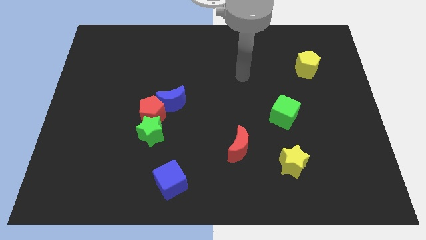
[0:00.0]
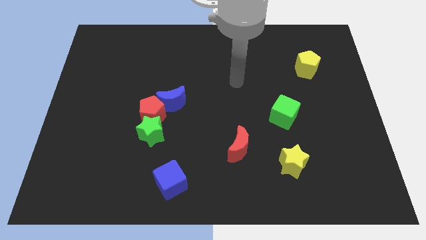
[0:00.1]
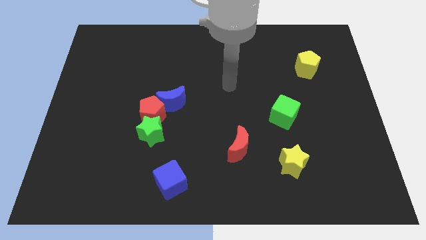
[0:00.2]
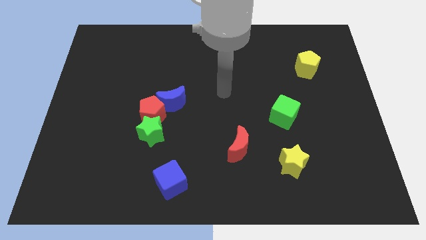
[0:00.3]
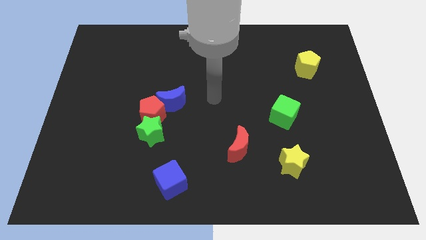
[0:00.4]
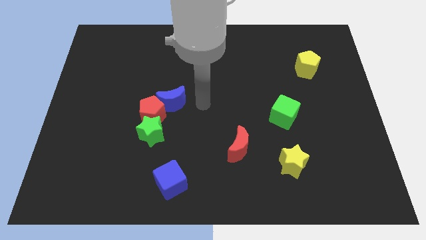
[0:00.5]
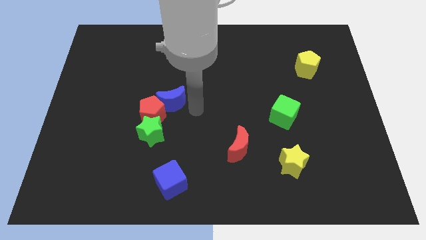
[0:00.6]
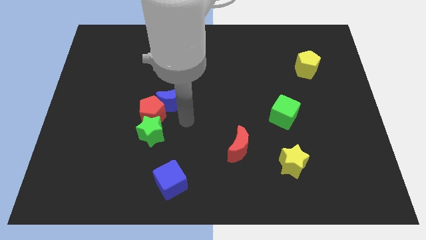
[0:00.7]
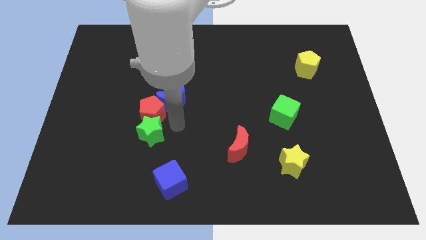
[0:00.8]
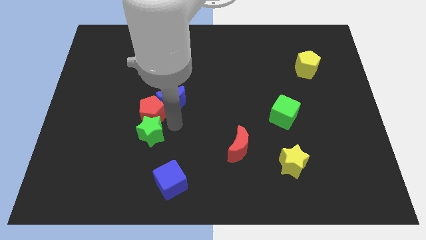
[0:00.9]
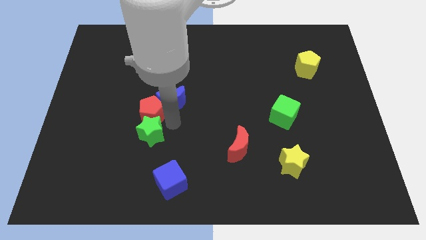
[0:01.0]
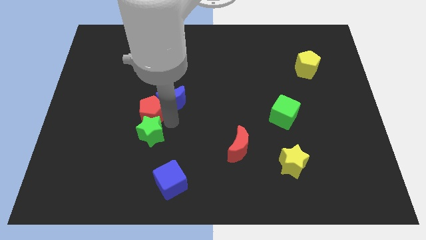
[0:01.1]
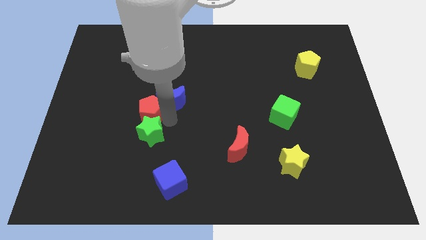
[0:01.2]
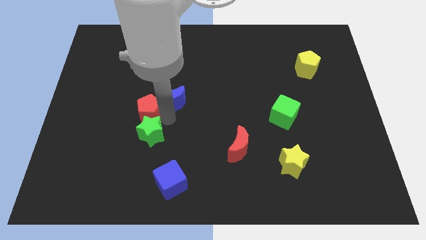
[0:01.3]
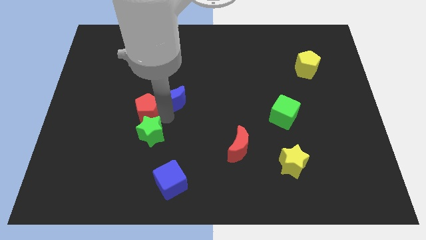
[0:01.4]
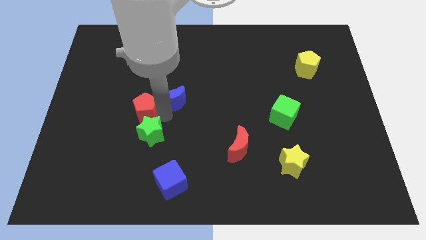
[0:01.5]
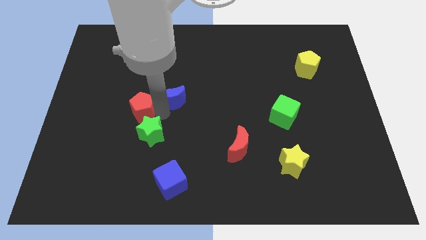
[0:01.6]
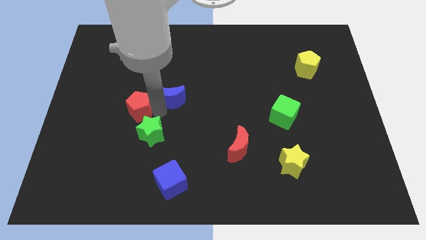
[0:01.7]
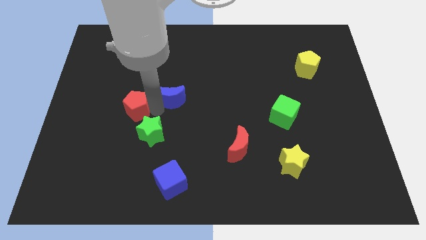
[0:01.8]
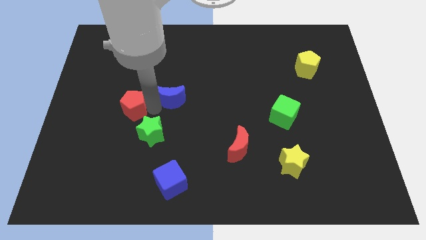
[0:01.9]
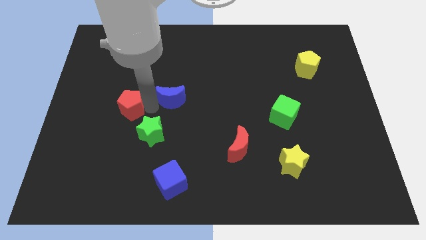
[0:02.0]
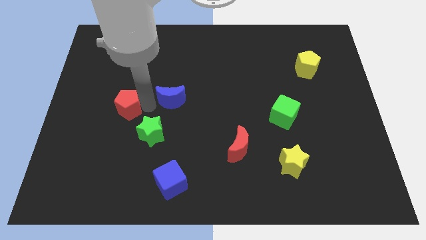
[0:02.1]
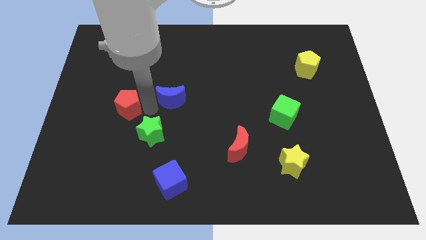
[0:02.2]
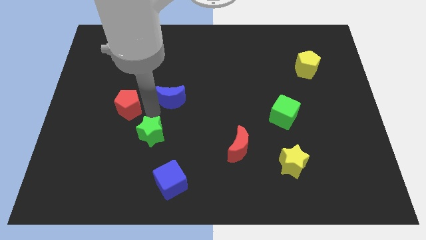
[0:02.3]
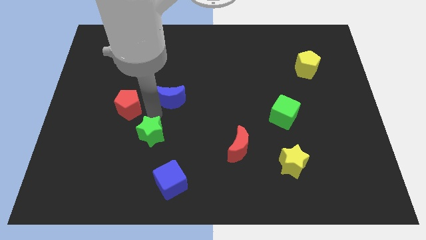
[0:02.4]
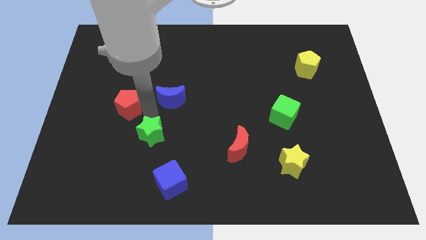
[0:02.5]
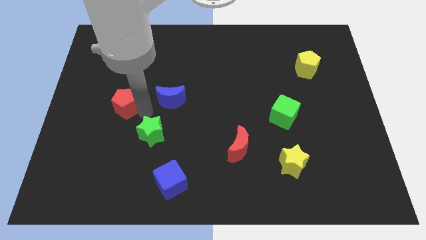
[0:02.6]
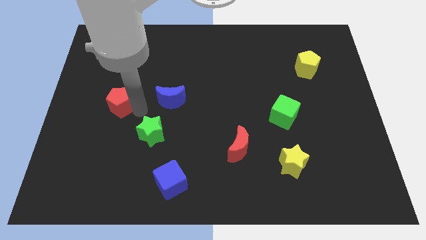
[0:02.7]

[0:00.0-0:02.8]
move the red pentagon away from the green star and blue moon

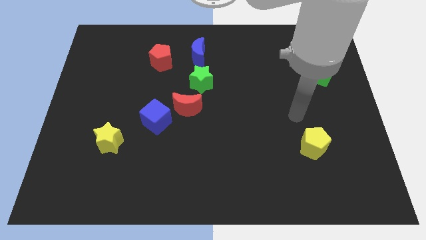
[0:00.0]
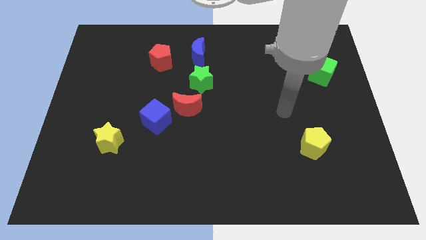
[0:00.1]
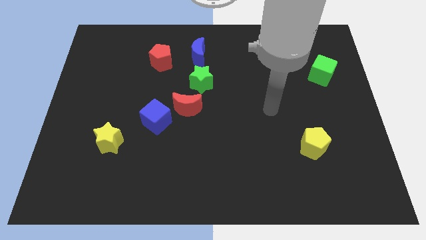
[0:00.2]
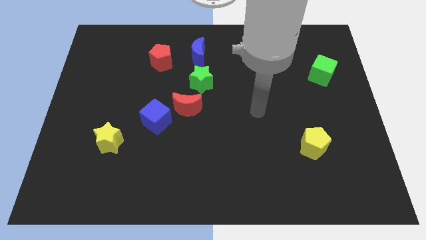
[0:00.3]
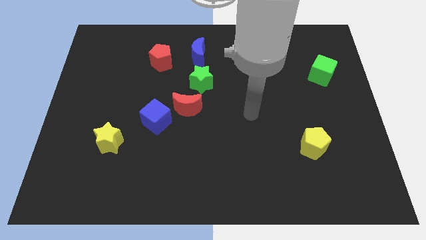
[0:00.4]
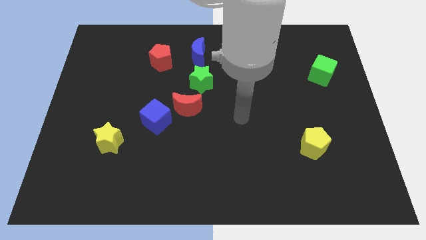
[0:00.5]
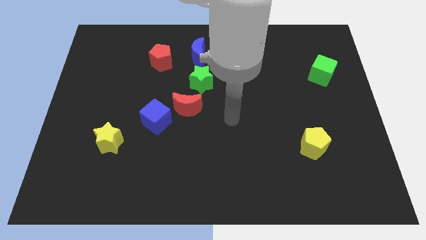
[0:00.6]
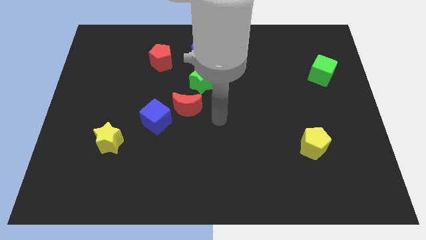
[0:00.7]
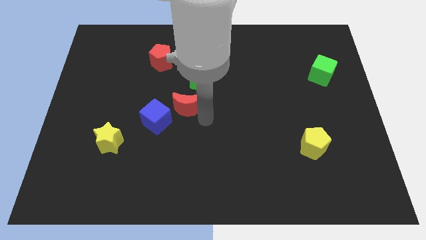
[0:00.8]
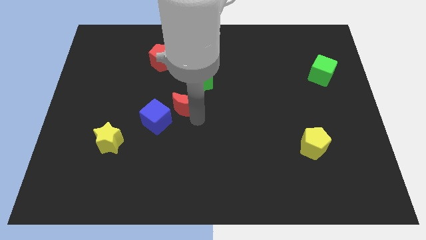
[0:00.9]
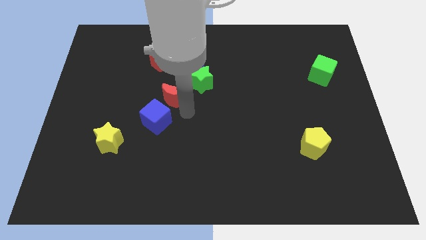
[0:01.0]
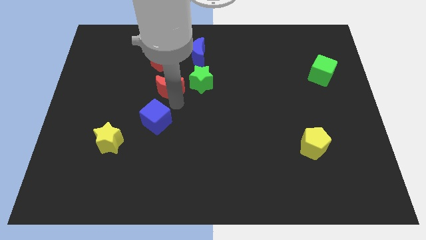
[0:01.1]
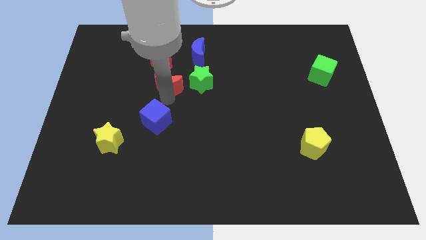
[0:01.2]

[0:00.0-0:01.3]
pull the blue cube apart from the red moon

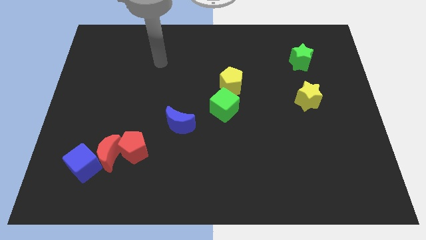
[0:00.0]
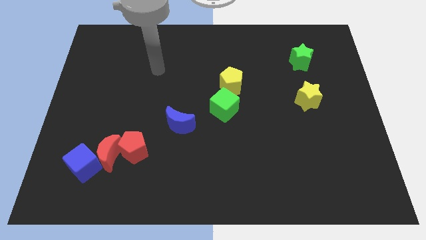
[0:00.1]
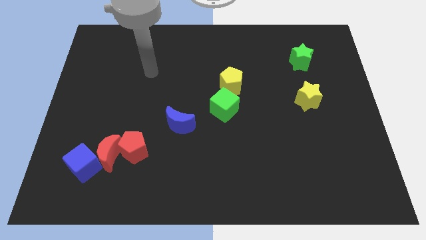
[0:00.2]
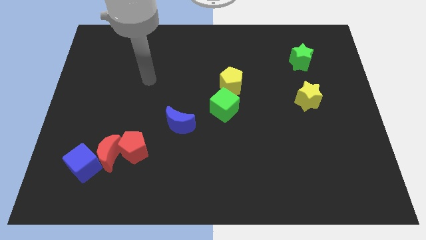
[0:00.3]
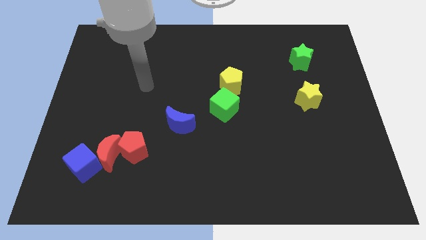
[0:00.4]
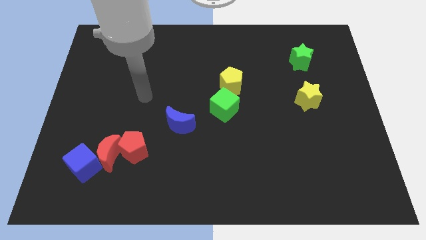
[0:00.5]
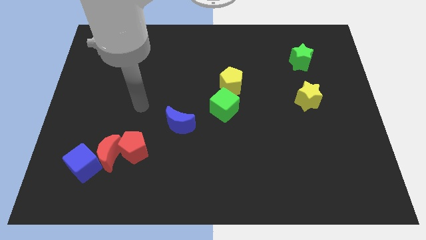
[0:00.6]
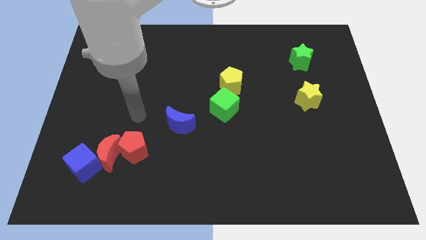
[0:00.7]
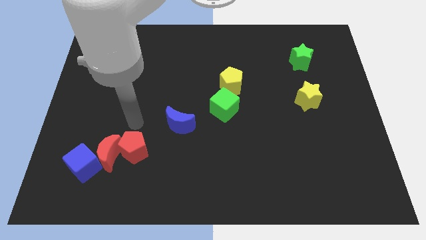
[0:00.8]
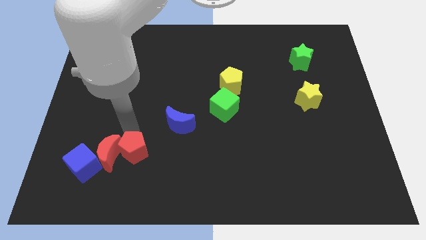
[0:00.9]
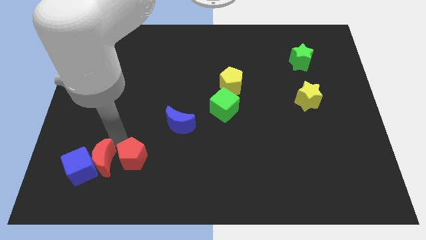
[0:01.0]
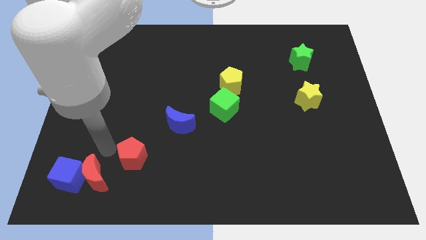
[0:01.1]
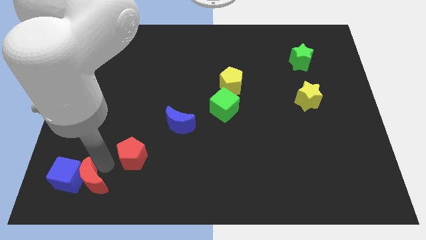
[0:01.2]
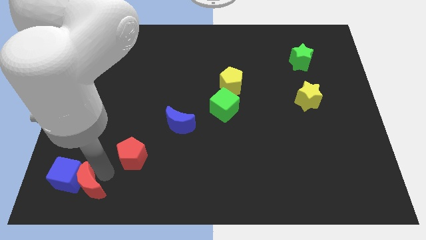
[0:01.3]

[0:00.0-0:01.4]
pull the red pentagon apart from the red moon

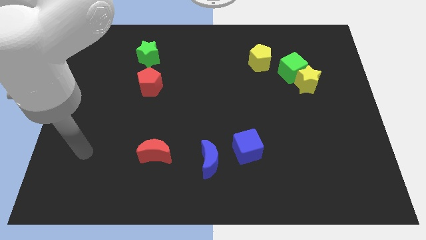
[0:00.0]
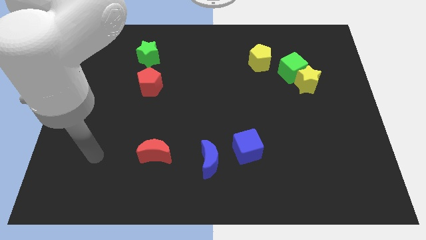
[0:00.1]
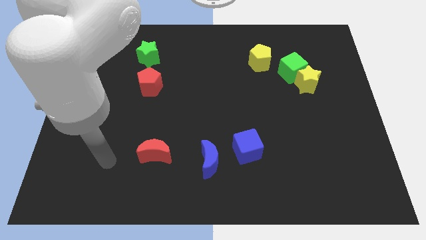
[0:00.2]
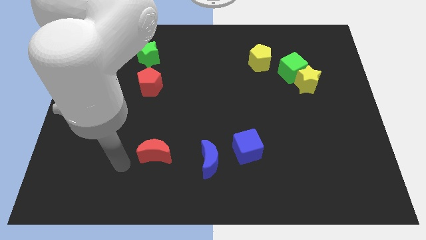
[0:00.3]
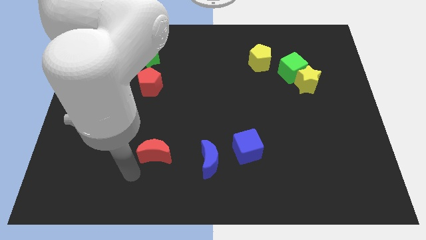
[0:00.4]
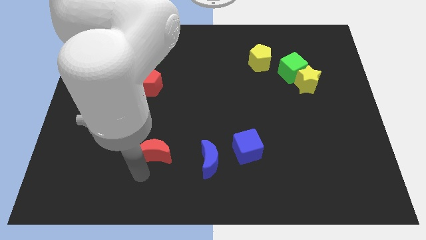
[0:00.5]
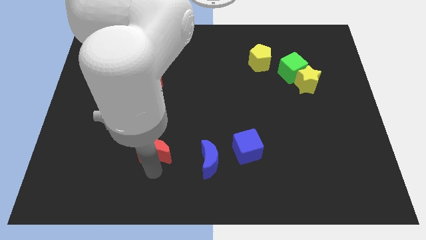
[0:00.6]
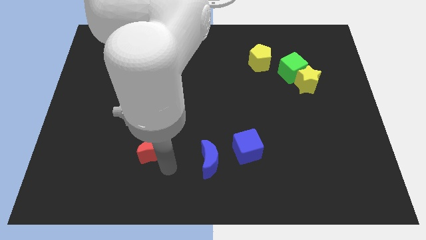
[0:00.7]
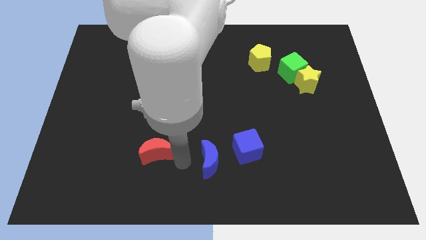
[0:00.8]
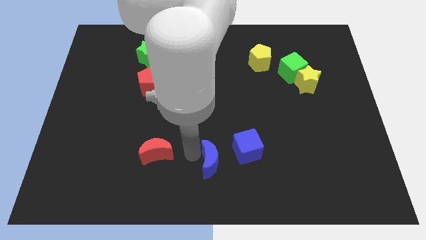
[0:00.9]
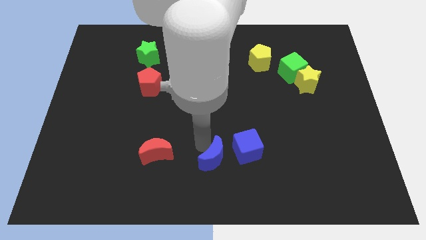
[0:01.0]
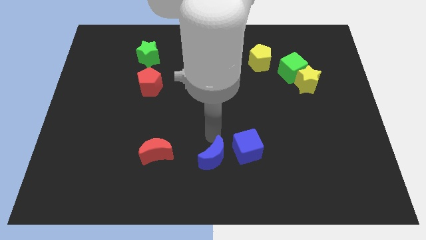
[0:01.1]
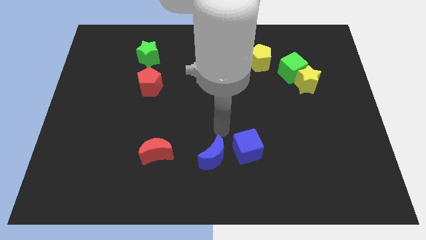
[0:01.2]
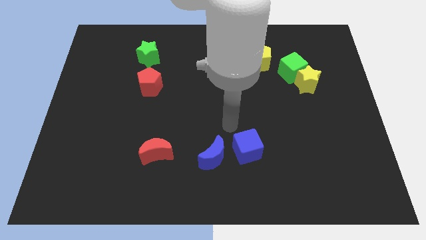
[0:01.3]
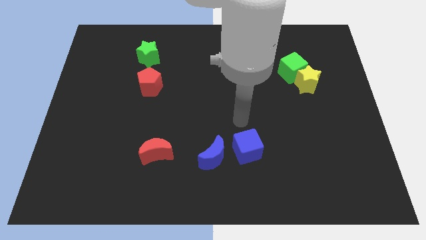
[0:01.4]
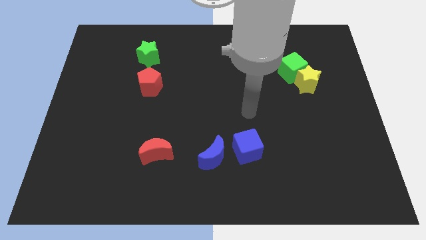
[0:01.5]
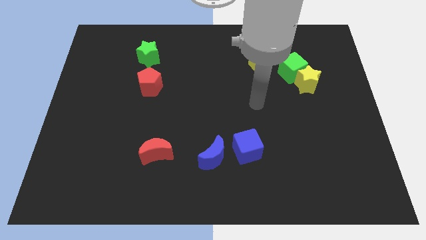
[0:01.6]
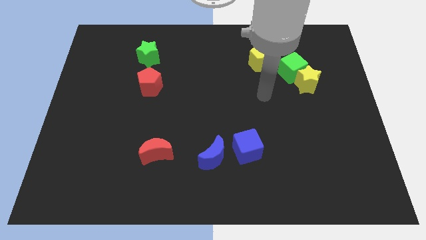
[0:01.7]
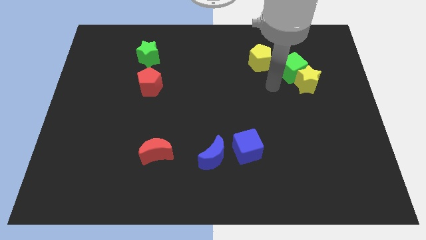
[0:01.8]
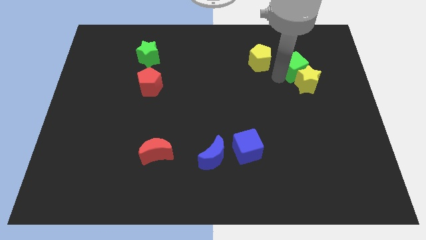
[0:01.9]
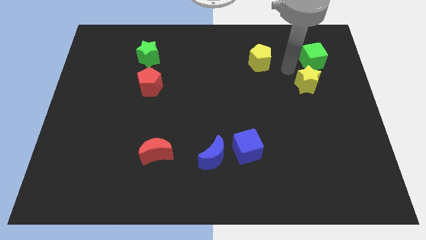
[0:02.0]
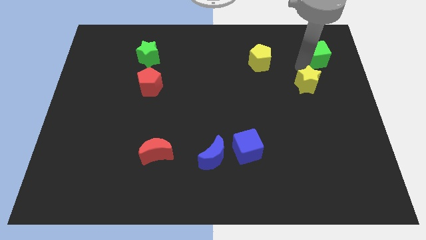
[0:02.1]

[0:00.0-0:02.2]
move the yellow star away from the green cube

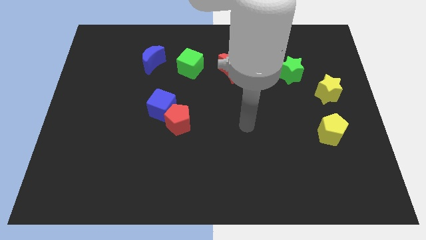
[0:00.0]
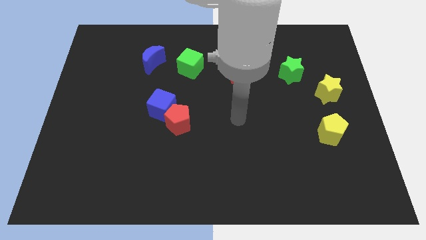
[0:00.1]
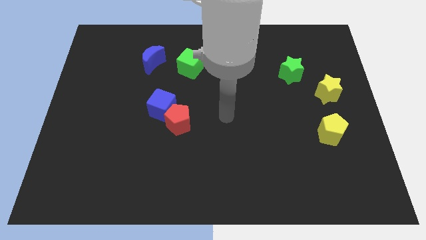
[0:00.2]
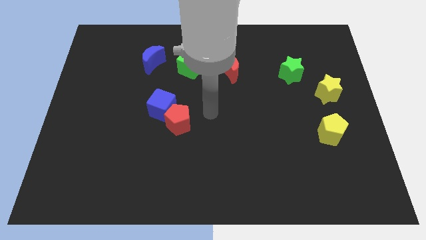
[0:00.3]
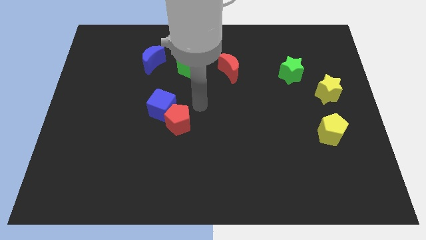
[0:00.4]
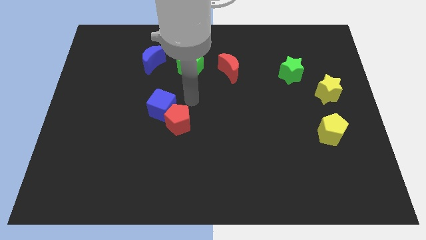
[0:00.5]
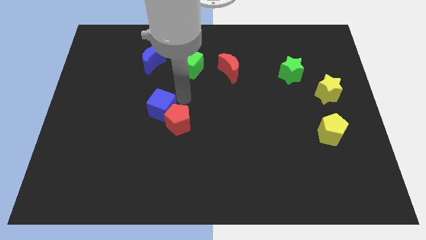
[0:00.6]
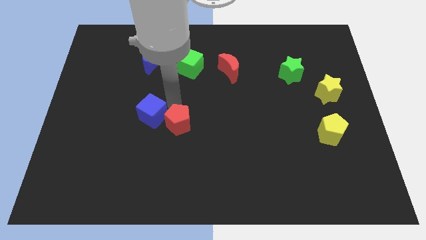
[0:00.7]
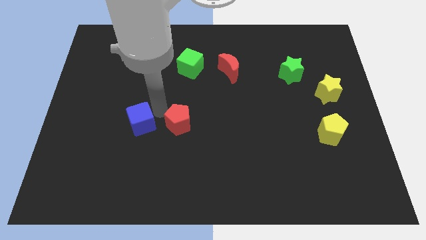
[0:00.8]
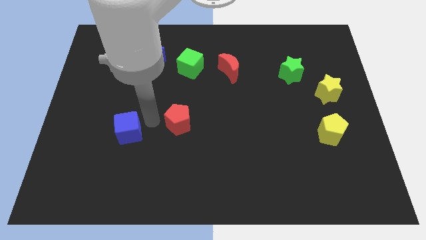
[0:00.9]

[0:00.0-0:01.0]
pull the red pentagon apart from the blue cube

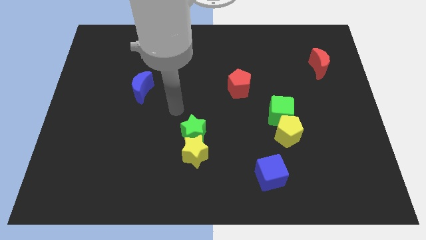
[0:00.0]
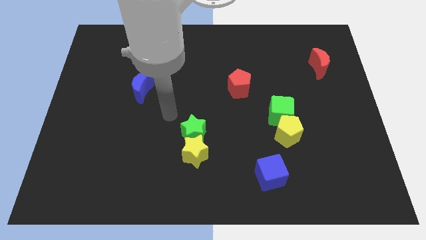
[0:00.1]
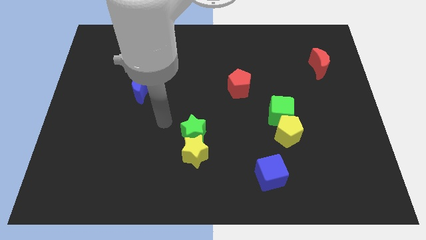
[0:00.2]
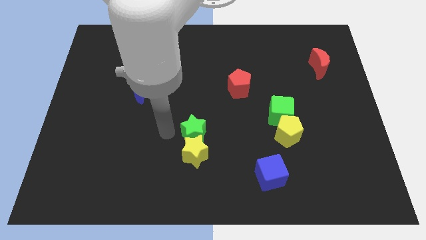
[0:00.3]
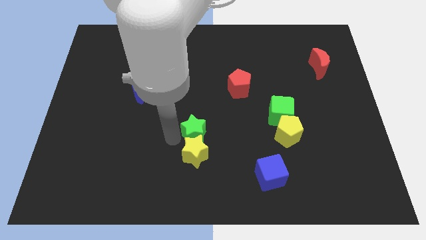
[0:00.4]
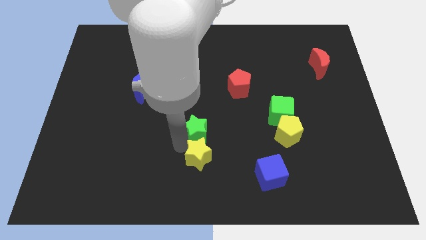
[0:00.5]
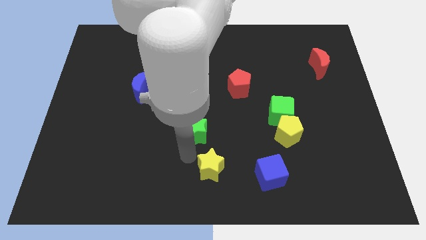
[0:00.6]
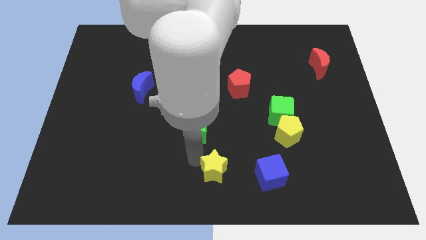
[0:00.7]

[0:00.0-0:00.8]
separate the green star from the yellow star
